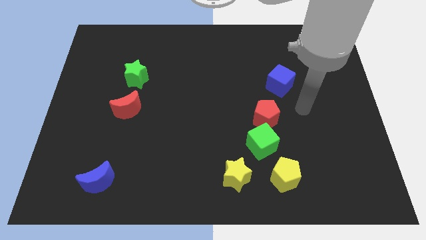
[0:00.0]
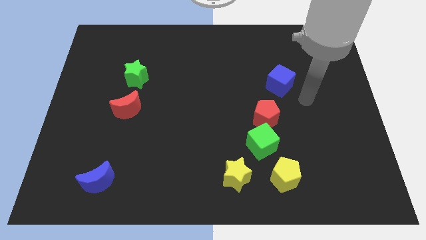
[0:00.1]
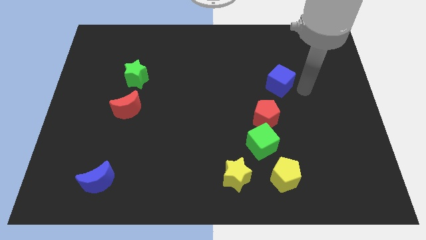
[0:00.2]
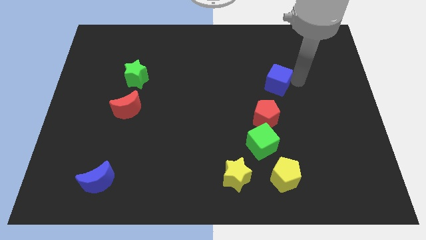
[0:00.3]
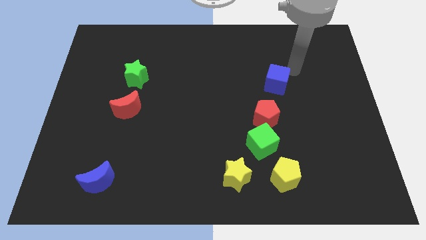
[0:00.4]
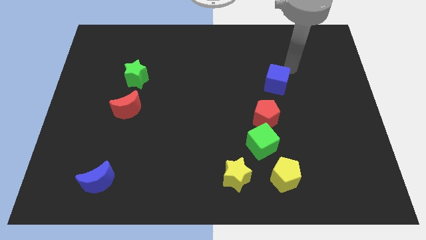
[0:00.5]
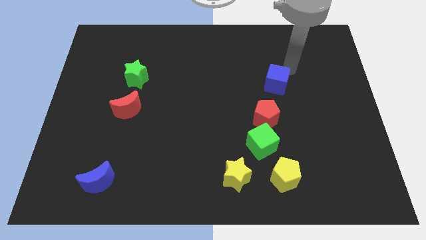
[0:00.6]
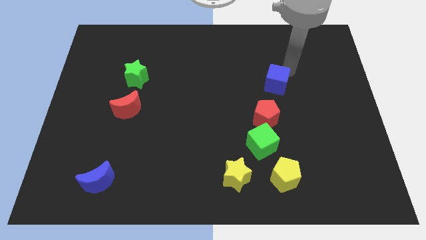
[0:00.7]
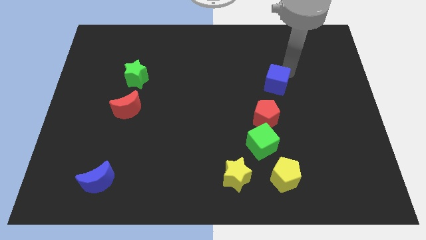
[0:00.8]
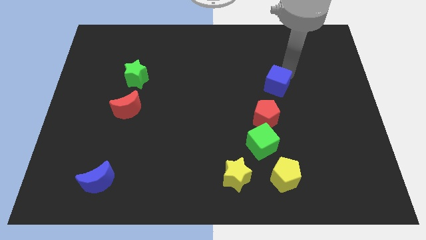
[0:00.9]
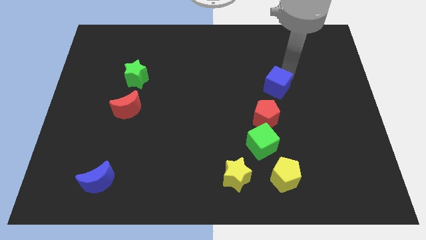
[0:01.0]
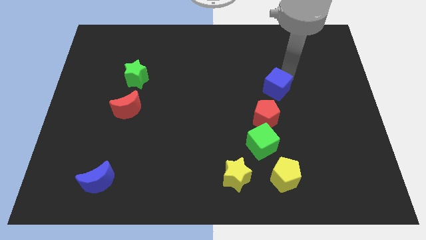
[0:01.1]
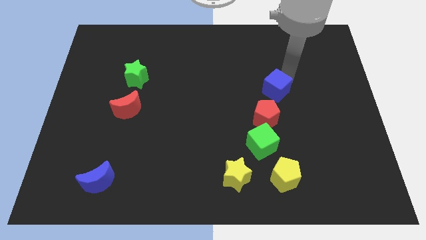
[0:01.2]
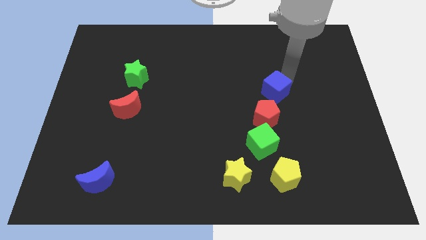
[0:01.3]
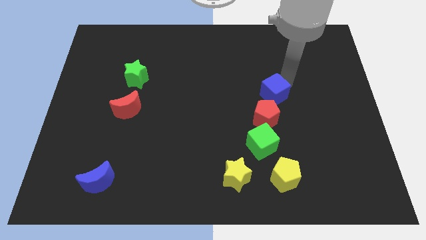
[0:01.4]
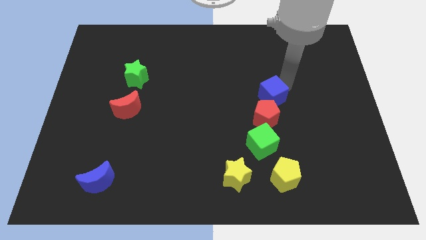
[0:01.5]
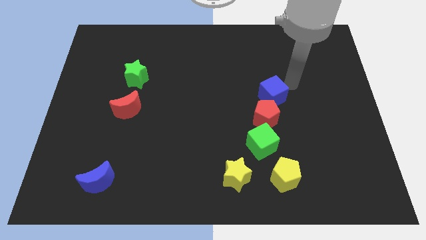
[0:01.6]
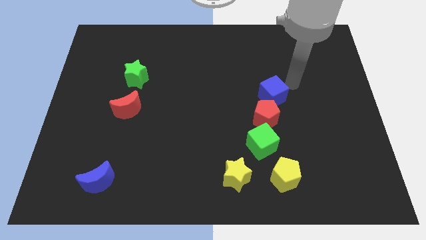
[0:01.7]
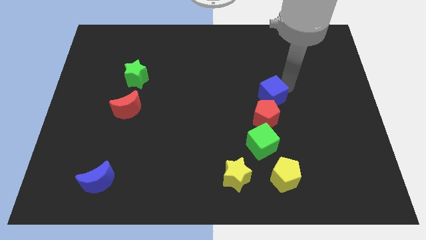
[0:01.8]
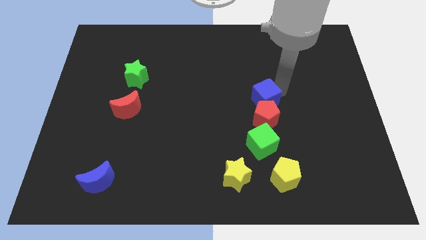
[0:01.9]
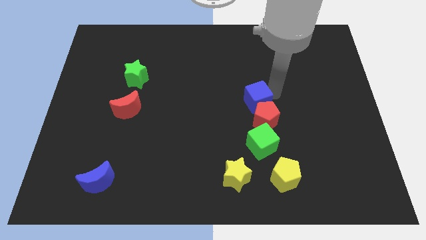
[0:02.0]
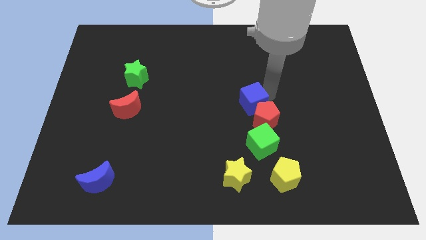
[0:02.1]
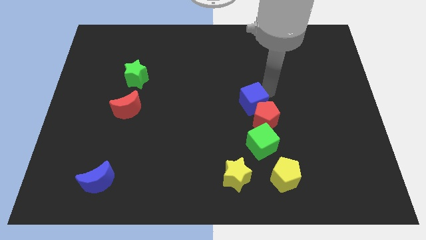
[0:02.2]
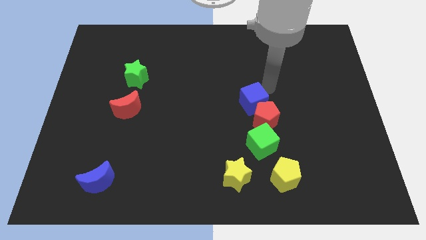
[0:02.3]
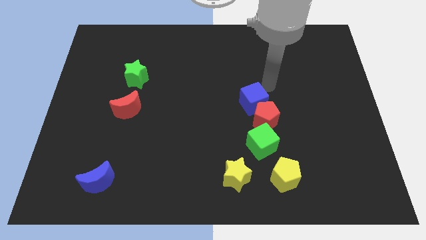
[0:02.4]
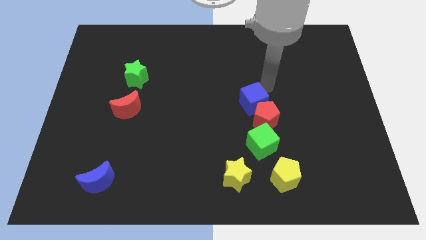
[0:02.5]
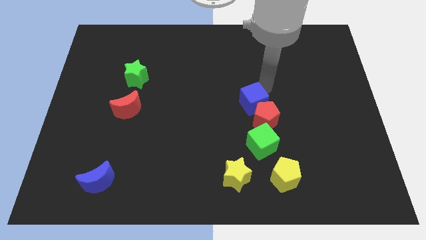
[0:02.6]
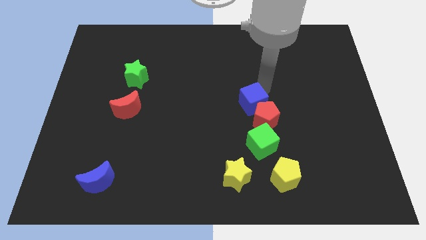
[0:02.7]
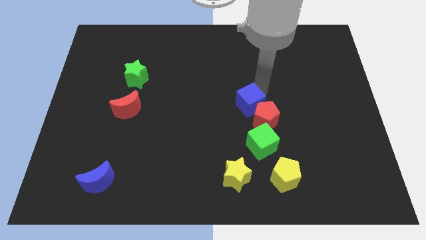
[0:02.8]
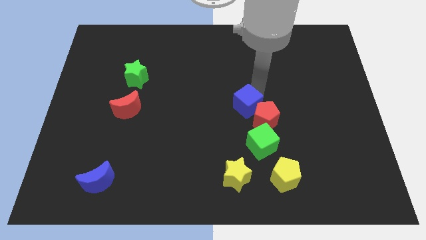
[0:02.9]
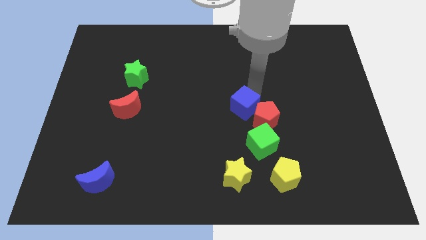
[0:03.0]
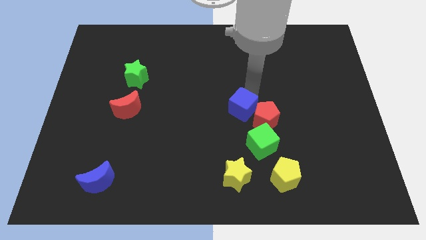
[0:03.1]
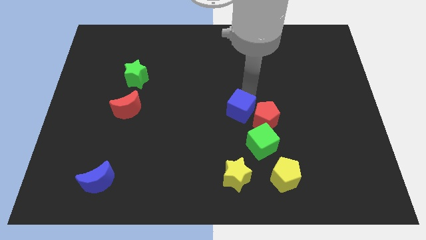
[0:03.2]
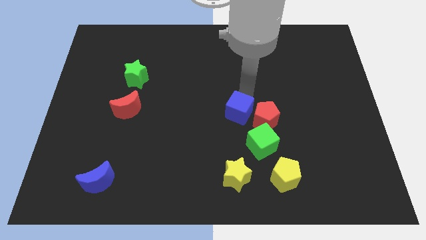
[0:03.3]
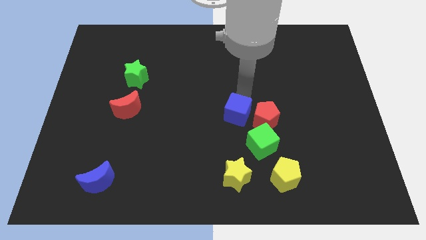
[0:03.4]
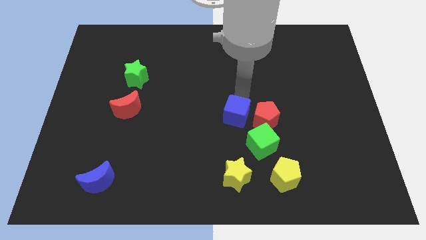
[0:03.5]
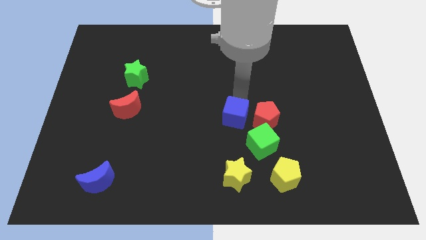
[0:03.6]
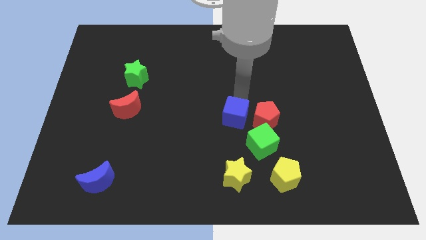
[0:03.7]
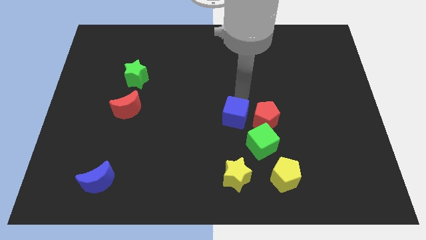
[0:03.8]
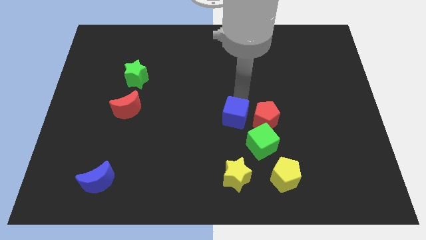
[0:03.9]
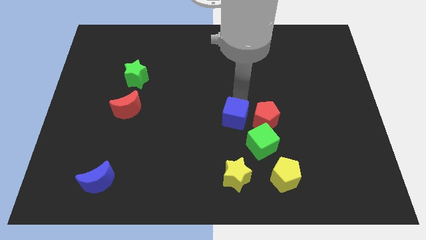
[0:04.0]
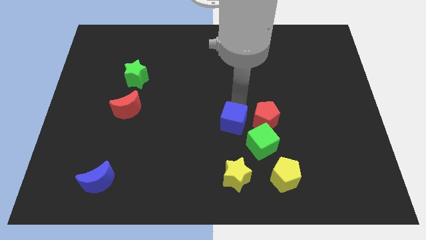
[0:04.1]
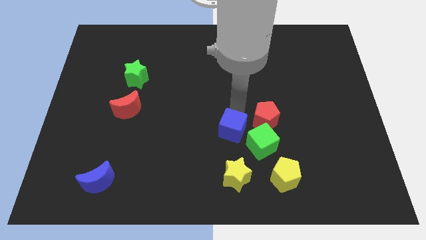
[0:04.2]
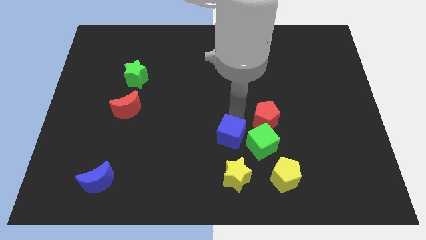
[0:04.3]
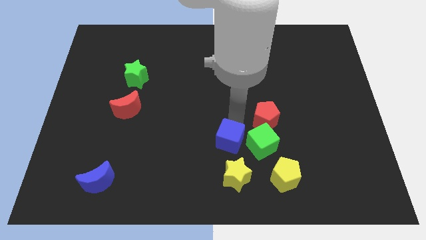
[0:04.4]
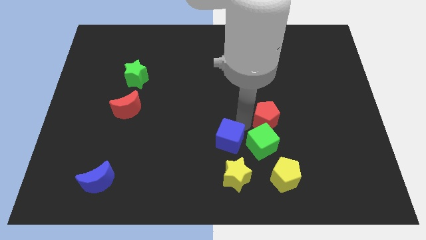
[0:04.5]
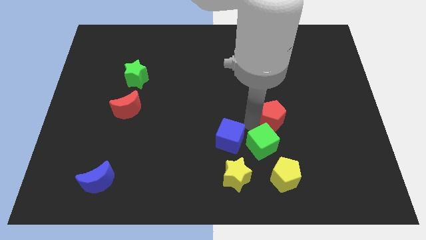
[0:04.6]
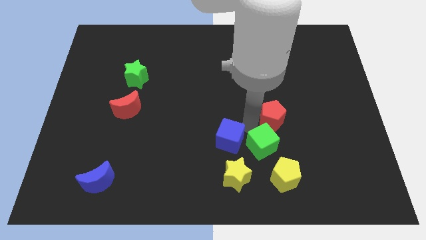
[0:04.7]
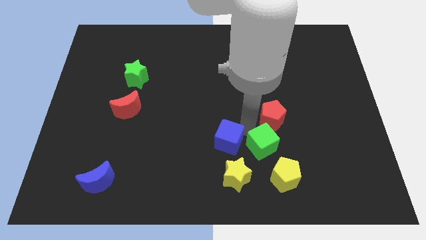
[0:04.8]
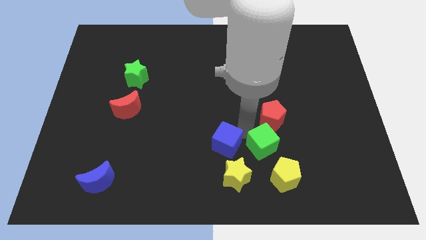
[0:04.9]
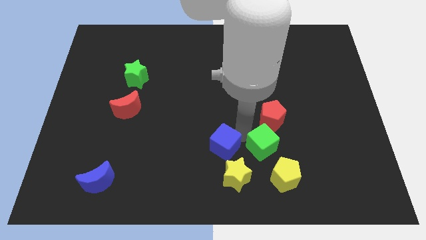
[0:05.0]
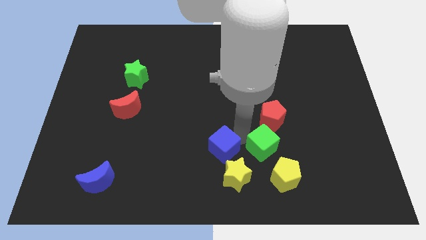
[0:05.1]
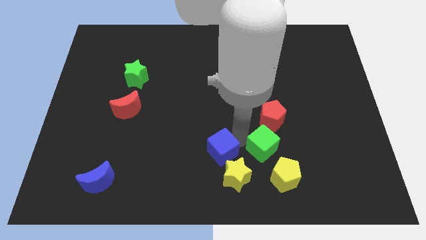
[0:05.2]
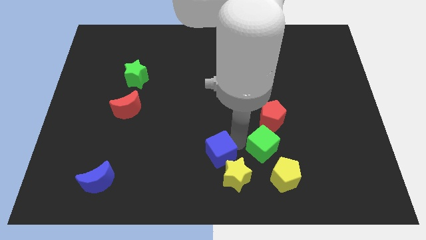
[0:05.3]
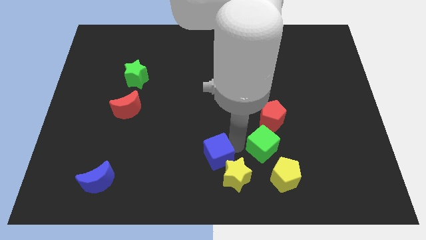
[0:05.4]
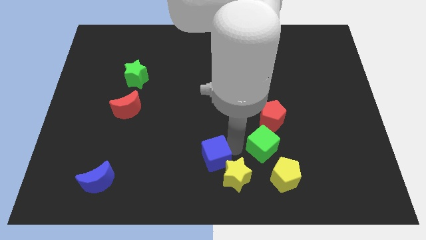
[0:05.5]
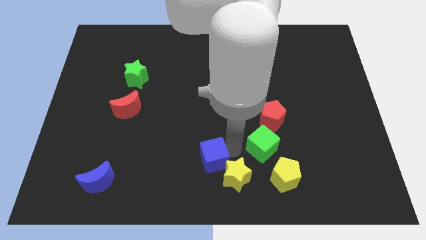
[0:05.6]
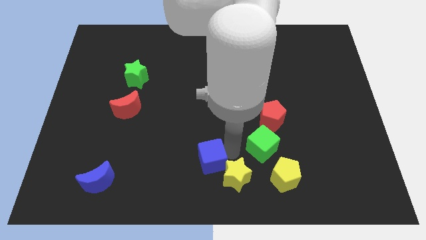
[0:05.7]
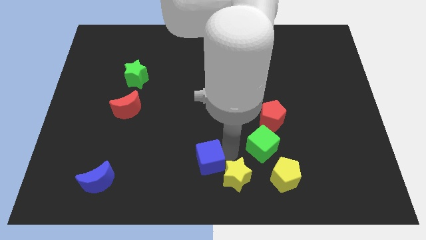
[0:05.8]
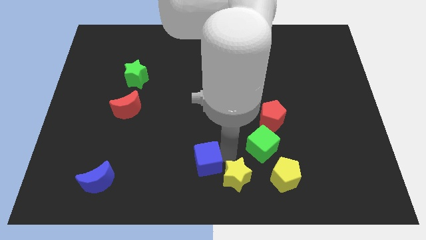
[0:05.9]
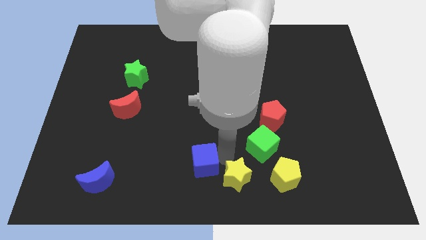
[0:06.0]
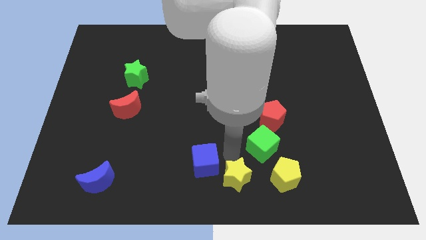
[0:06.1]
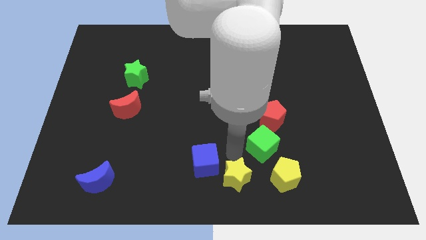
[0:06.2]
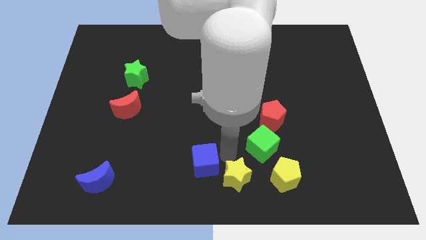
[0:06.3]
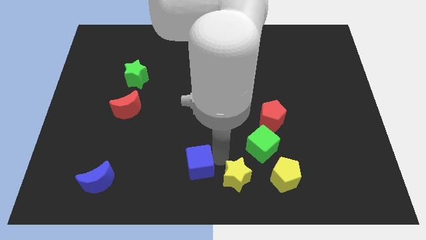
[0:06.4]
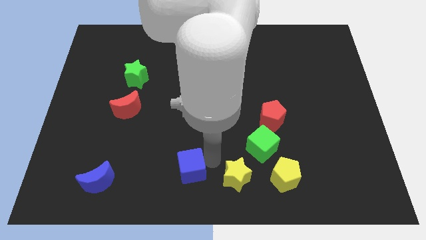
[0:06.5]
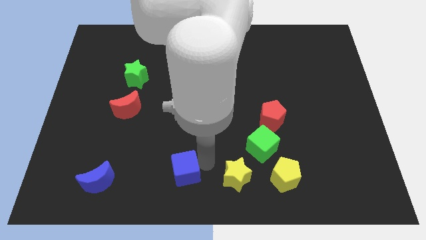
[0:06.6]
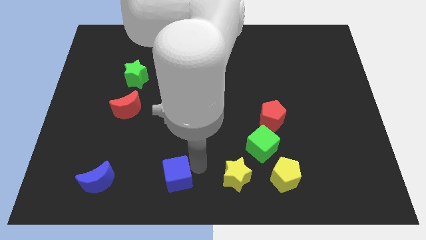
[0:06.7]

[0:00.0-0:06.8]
put the blue cube right of the blue moon

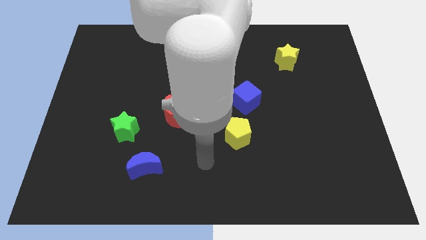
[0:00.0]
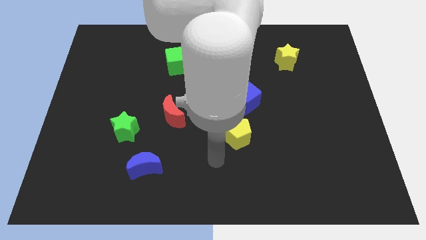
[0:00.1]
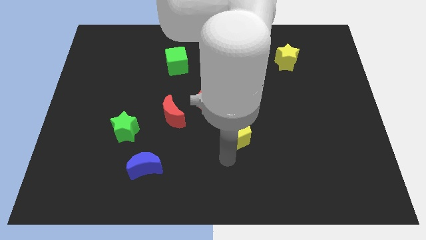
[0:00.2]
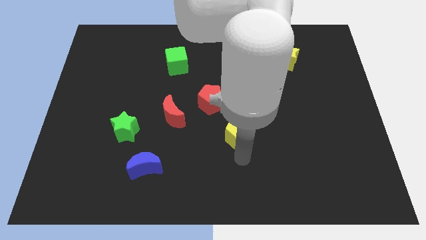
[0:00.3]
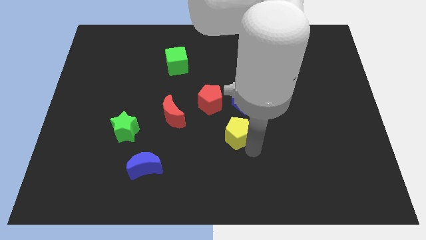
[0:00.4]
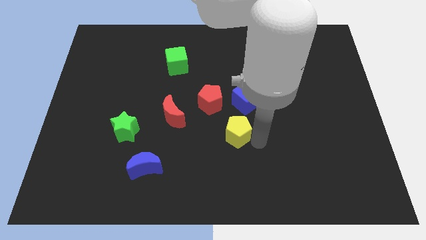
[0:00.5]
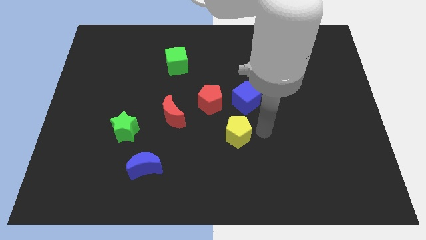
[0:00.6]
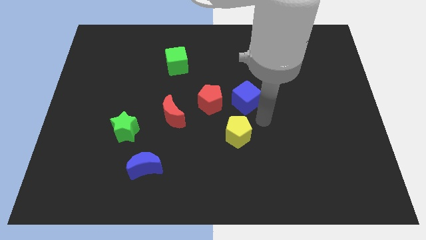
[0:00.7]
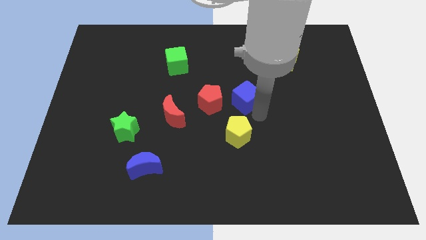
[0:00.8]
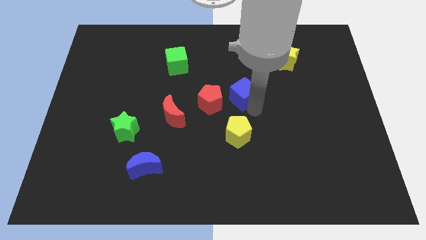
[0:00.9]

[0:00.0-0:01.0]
slide the blue cube to the top right of the red pentagon
